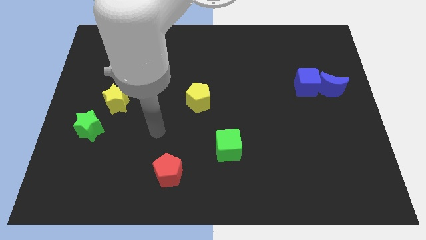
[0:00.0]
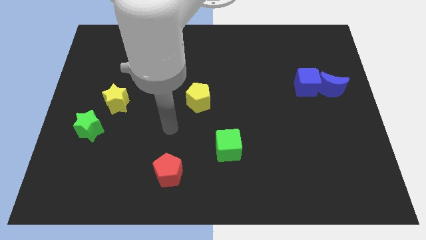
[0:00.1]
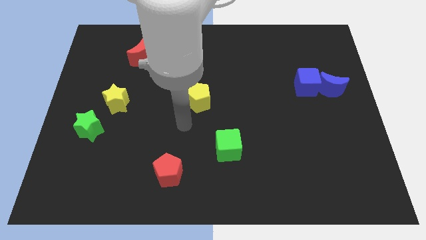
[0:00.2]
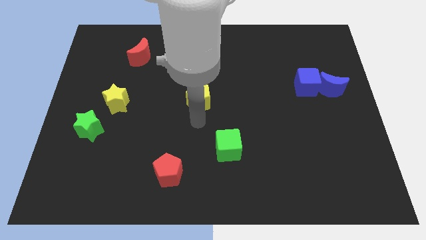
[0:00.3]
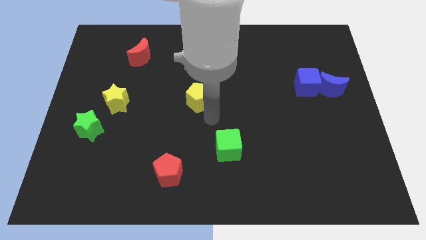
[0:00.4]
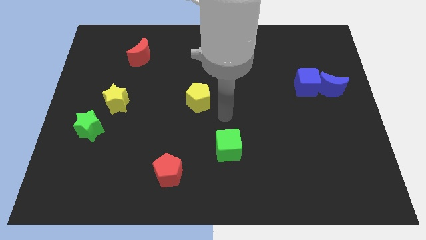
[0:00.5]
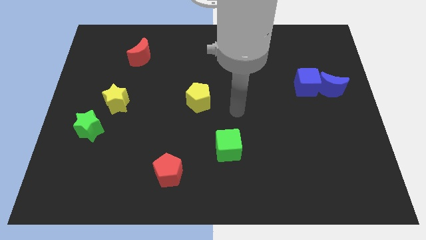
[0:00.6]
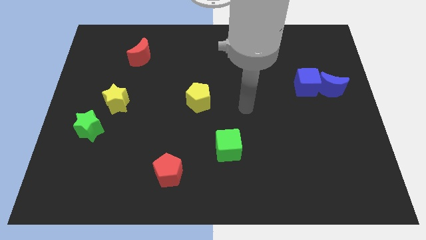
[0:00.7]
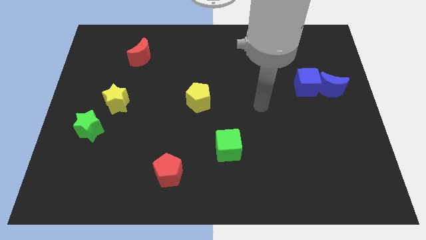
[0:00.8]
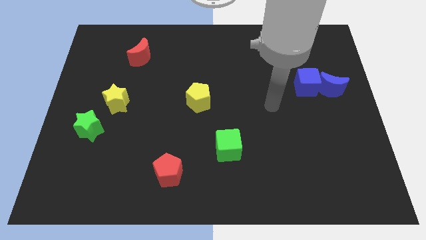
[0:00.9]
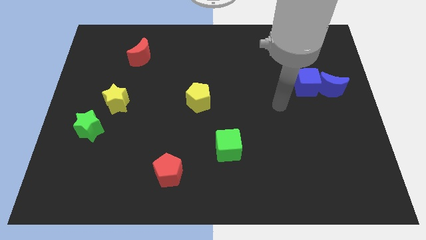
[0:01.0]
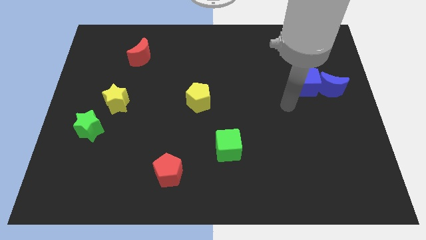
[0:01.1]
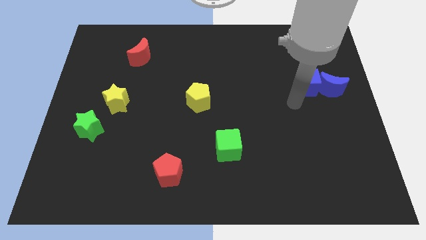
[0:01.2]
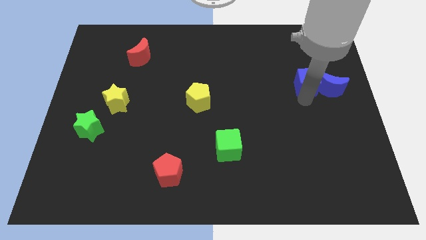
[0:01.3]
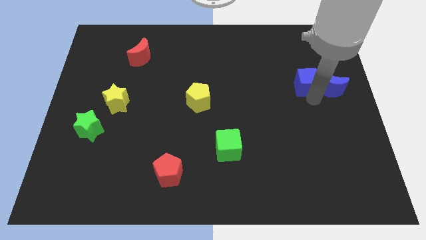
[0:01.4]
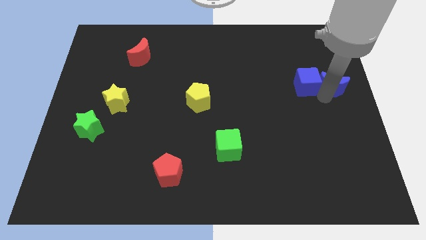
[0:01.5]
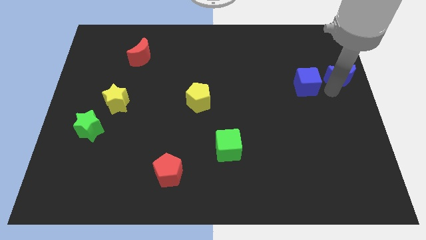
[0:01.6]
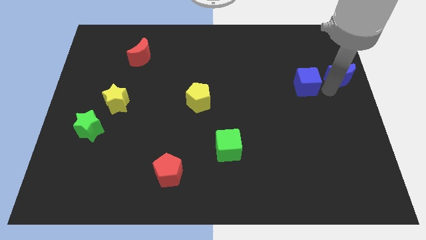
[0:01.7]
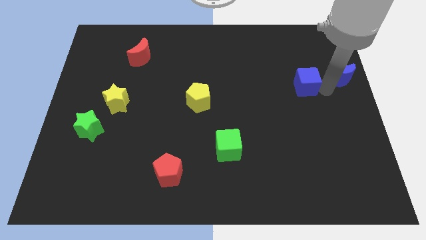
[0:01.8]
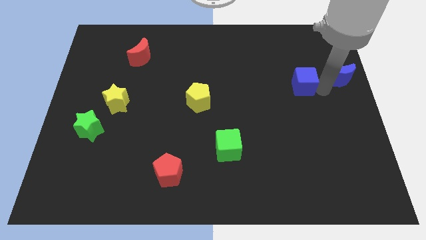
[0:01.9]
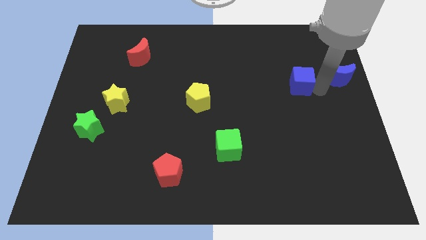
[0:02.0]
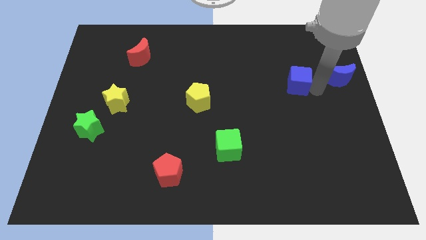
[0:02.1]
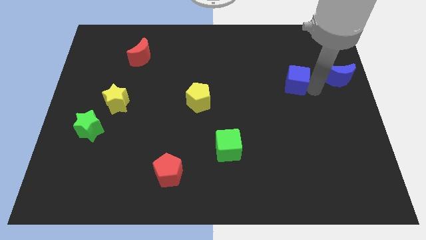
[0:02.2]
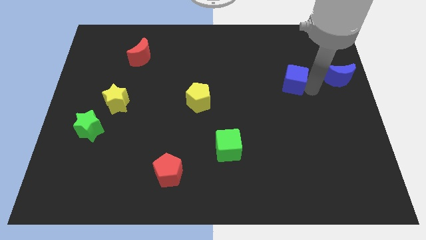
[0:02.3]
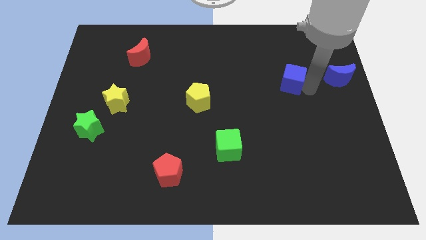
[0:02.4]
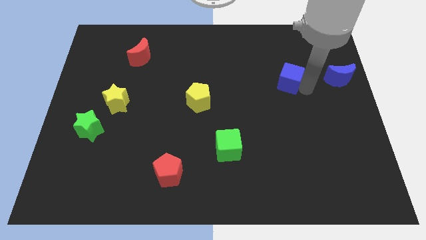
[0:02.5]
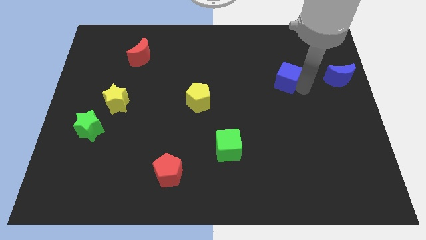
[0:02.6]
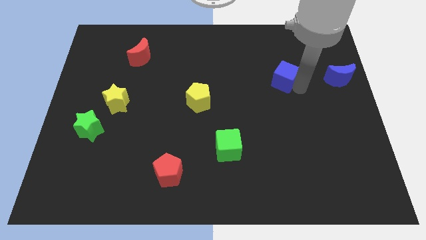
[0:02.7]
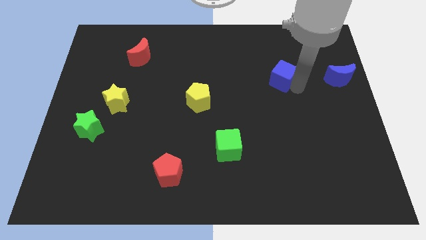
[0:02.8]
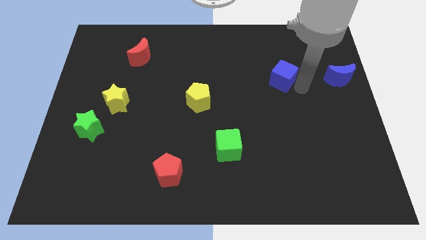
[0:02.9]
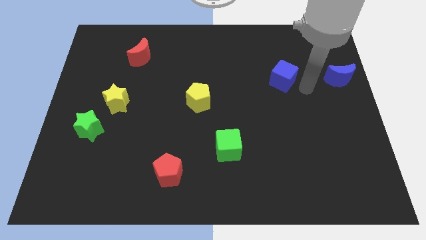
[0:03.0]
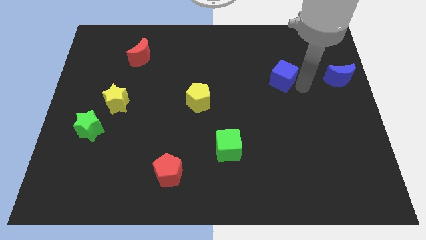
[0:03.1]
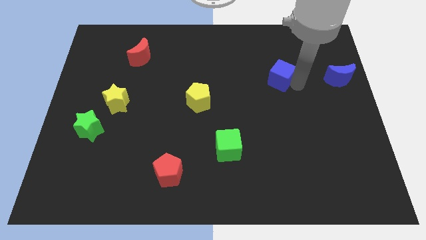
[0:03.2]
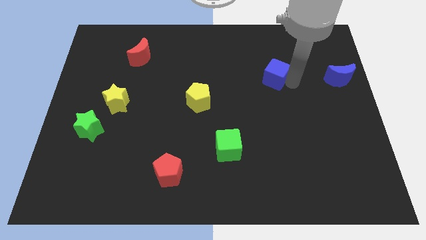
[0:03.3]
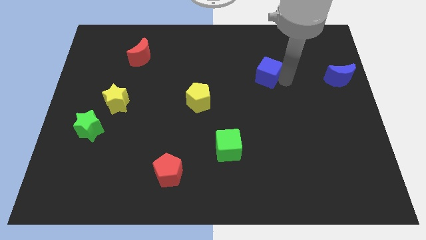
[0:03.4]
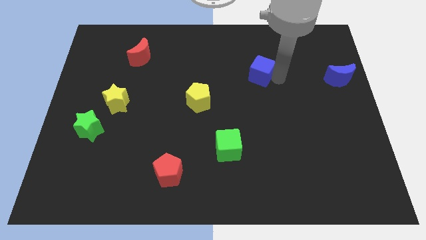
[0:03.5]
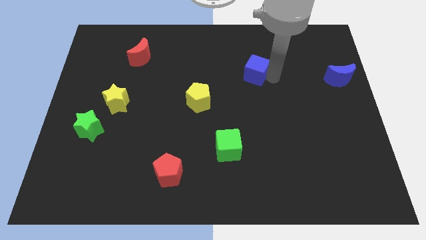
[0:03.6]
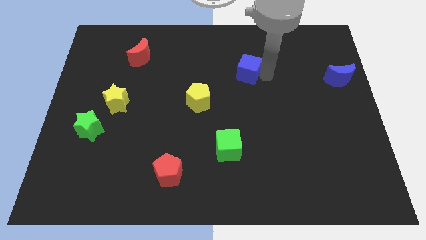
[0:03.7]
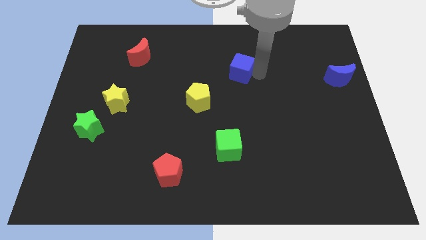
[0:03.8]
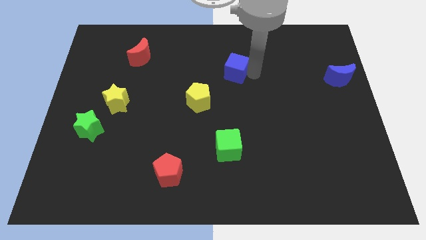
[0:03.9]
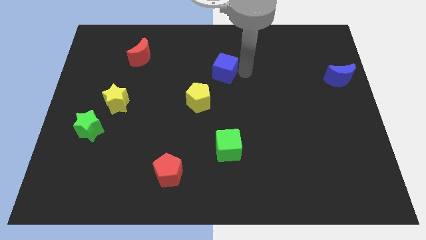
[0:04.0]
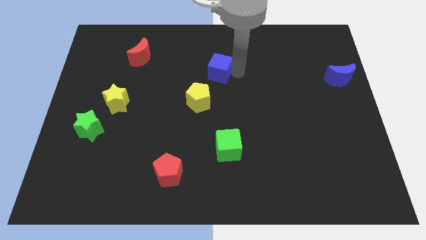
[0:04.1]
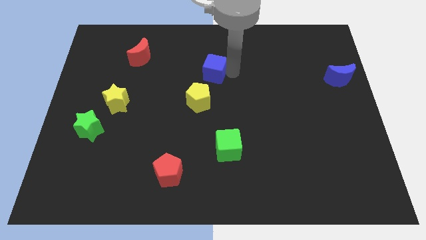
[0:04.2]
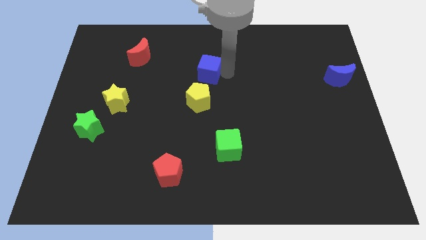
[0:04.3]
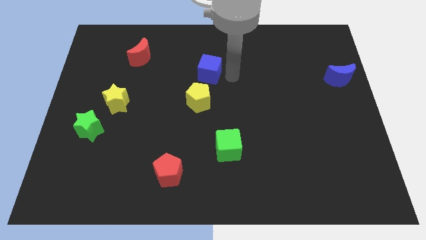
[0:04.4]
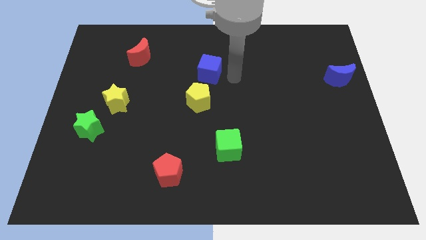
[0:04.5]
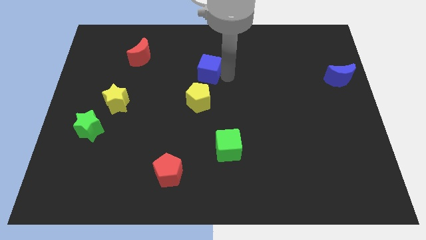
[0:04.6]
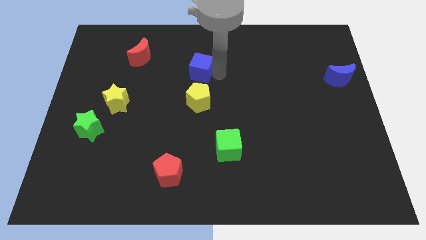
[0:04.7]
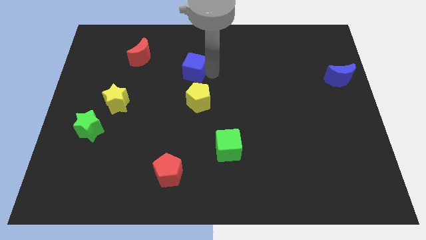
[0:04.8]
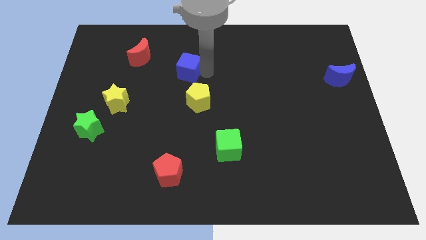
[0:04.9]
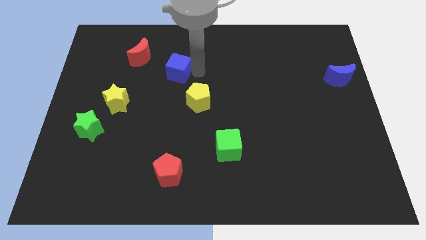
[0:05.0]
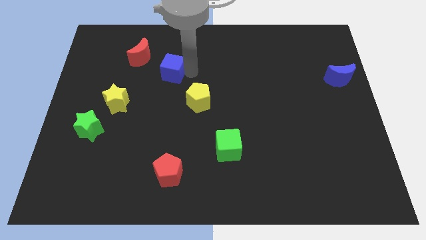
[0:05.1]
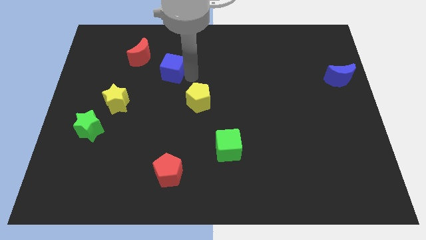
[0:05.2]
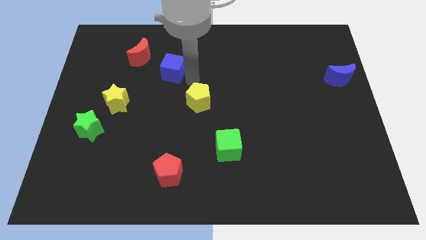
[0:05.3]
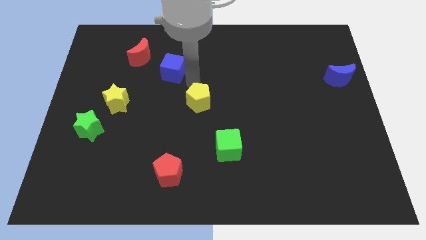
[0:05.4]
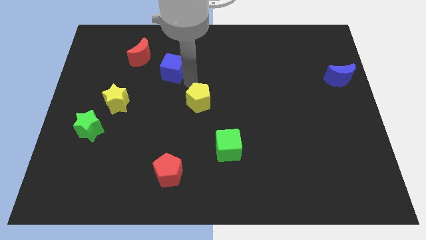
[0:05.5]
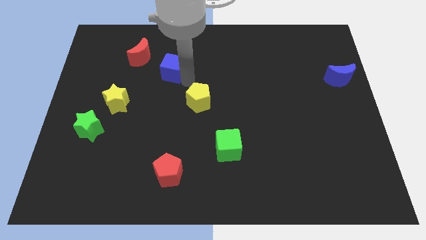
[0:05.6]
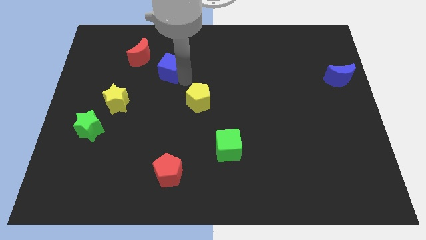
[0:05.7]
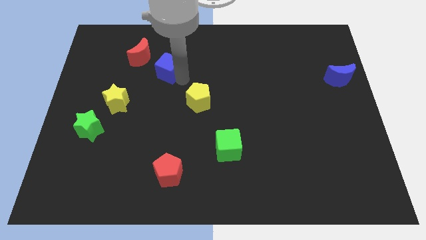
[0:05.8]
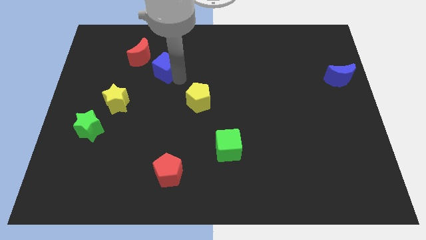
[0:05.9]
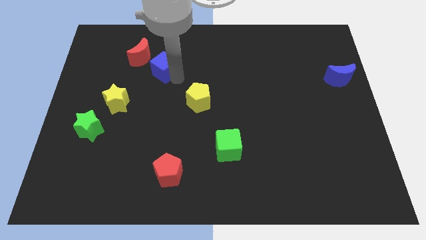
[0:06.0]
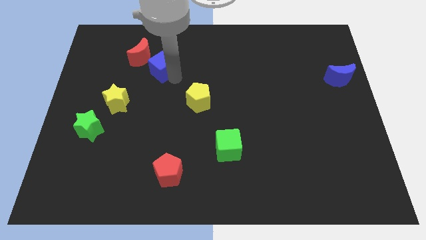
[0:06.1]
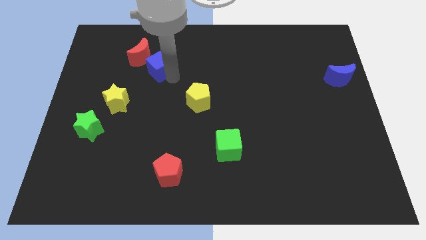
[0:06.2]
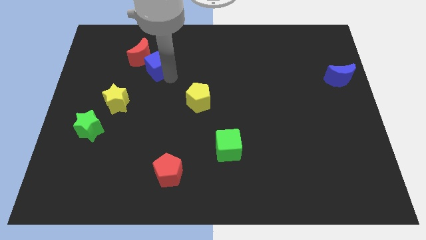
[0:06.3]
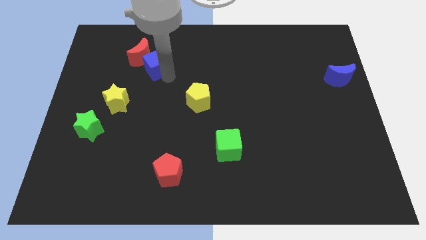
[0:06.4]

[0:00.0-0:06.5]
move the blue cube next to the red moon

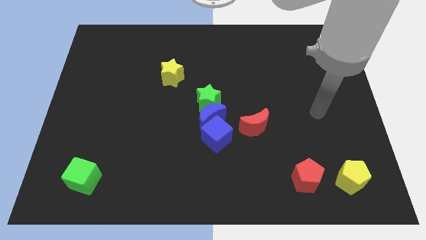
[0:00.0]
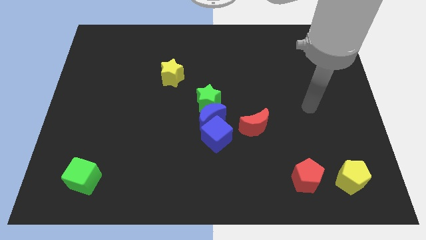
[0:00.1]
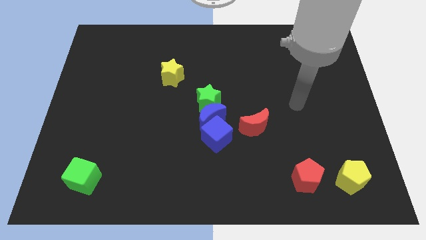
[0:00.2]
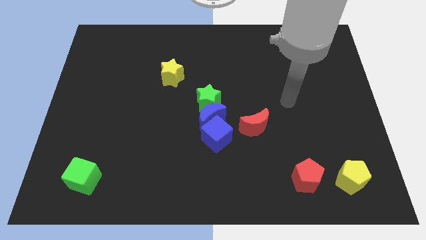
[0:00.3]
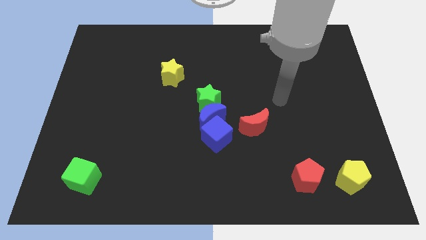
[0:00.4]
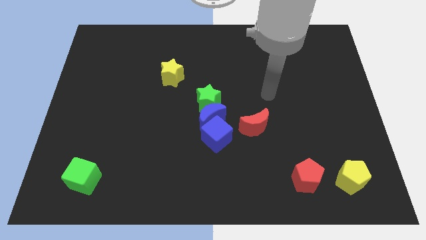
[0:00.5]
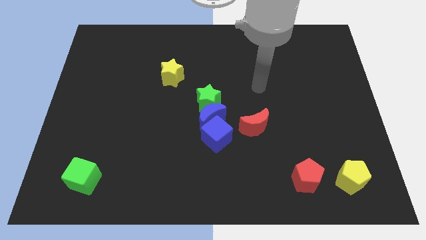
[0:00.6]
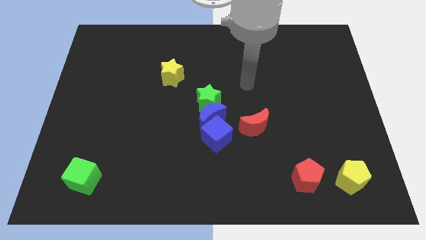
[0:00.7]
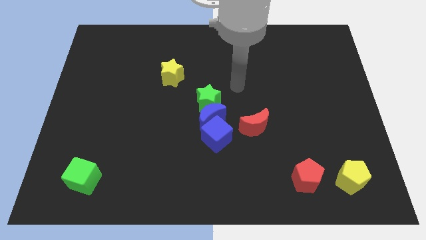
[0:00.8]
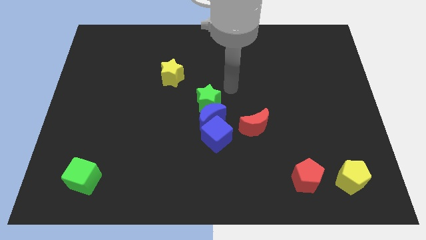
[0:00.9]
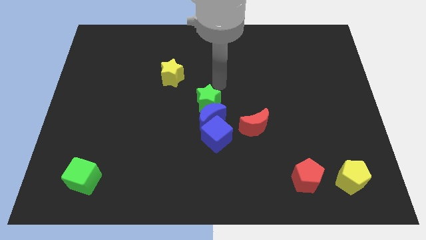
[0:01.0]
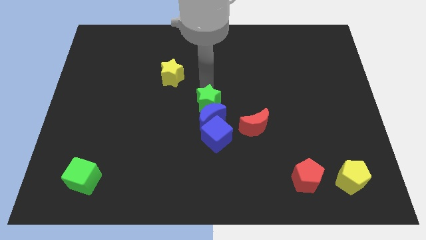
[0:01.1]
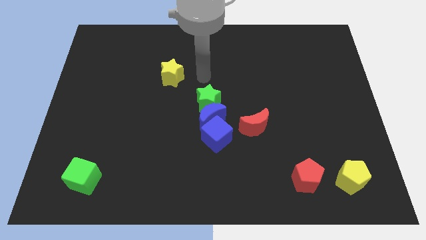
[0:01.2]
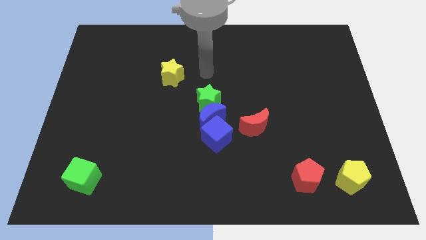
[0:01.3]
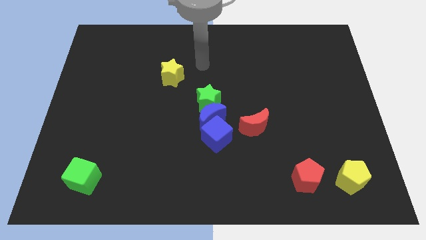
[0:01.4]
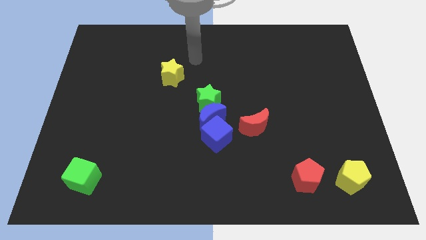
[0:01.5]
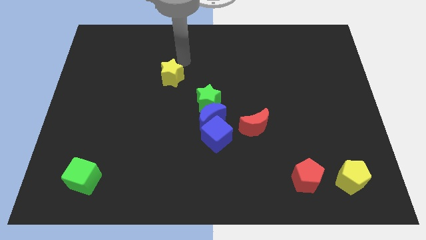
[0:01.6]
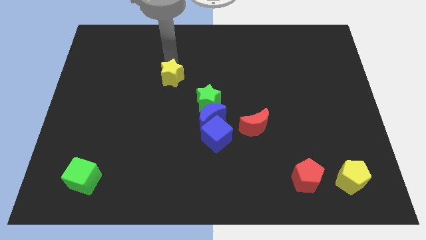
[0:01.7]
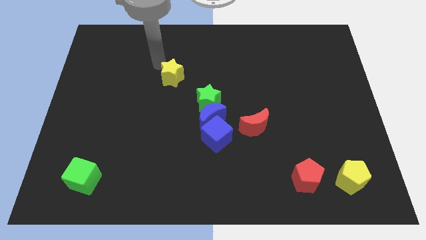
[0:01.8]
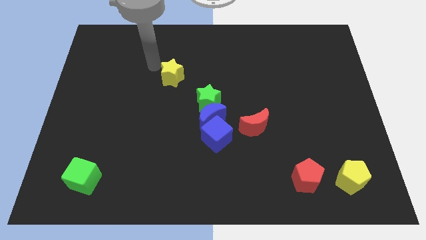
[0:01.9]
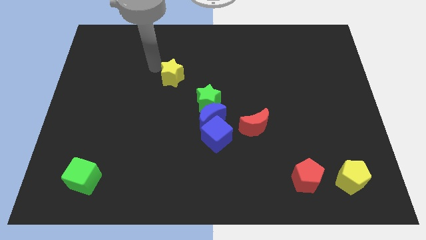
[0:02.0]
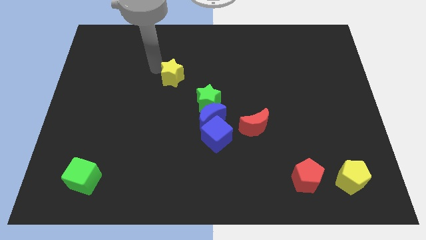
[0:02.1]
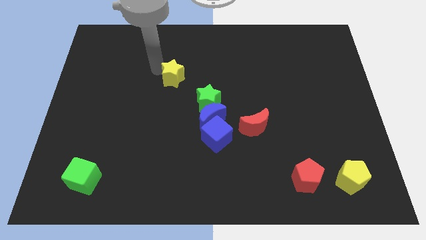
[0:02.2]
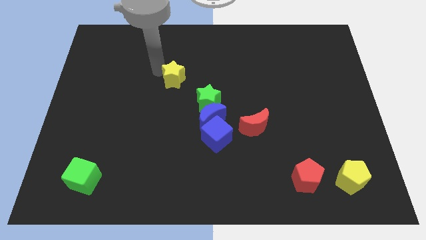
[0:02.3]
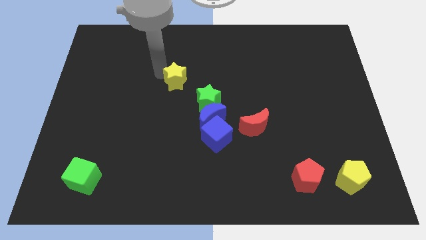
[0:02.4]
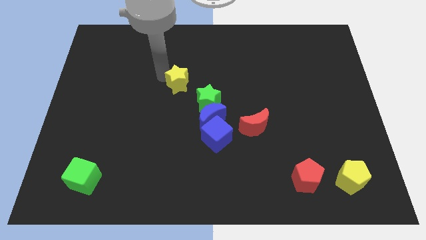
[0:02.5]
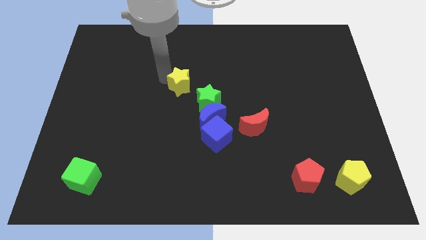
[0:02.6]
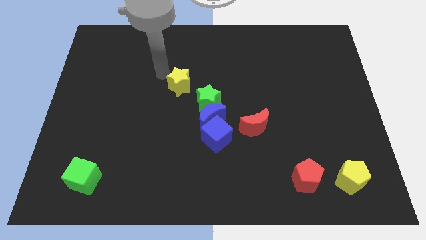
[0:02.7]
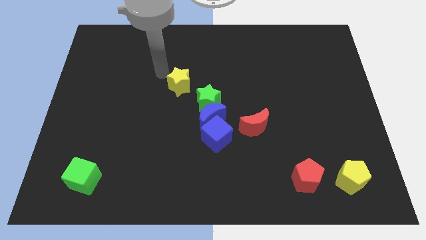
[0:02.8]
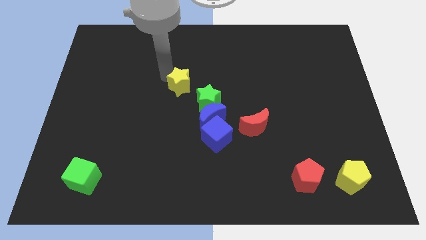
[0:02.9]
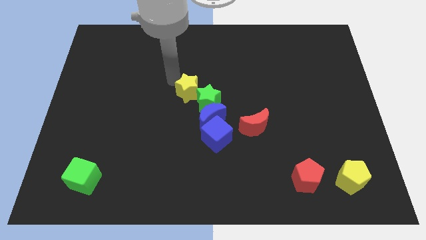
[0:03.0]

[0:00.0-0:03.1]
move the yellow star next to the green star
